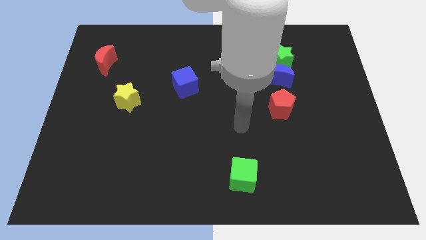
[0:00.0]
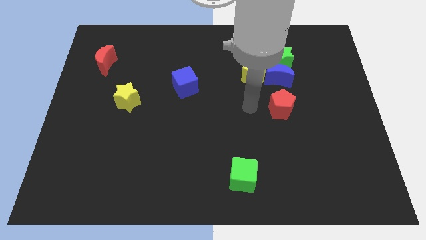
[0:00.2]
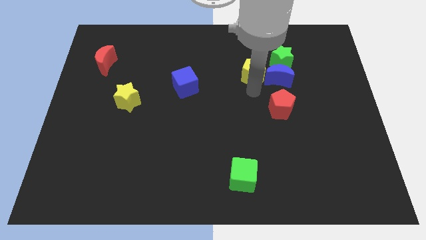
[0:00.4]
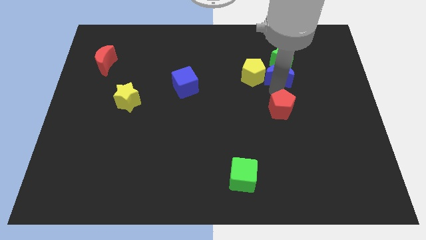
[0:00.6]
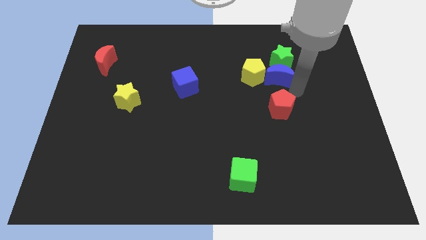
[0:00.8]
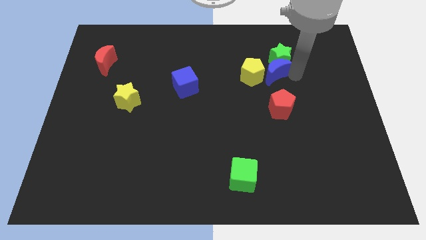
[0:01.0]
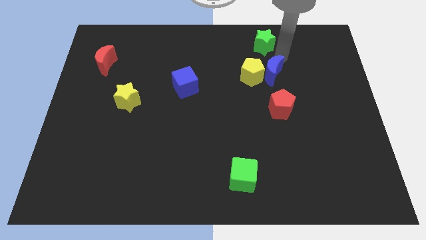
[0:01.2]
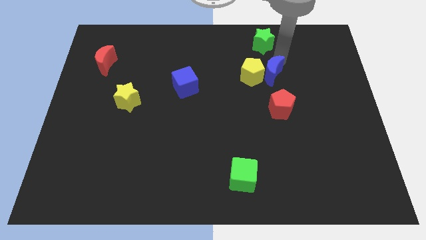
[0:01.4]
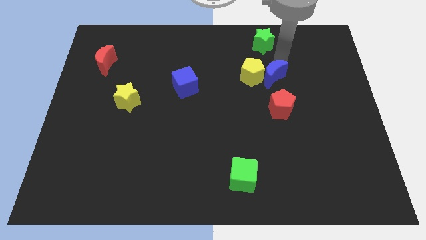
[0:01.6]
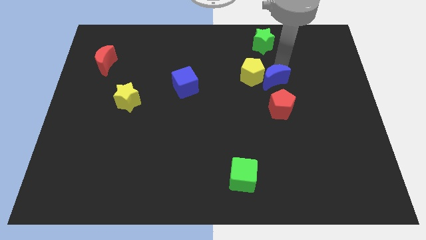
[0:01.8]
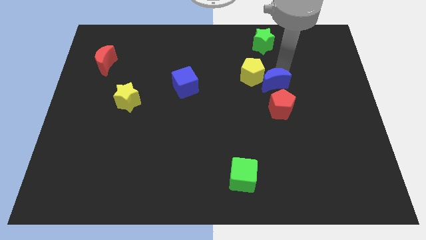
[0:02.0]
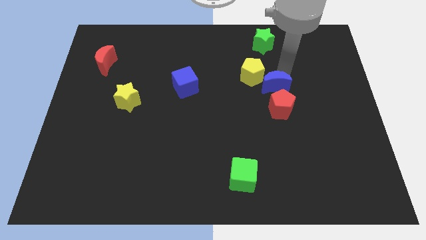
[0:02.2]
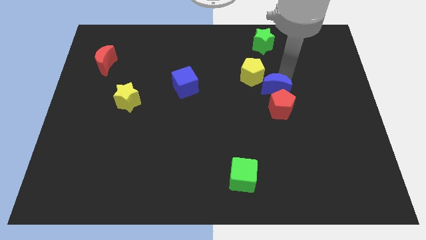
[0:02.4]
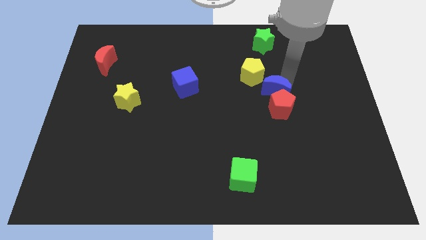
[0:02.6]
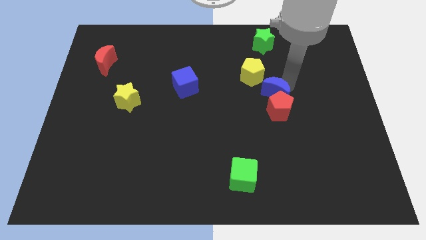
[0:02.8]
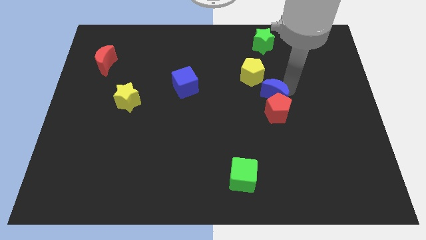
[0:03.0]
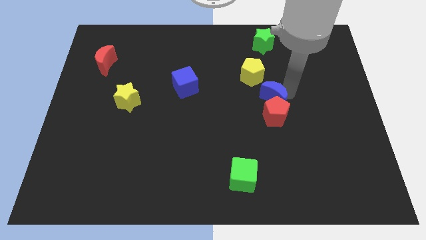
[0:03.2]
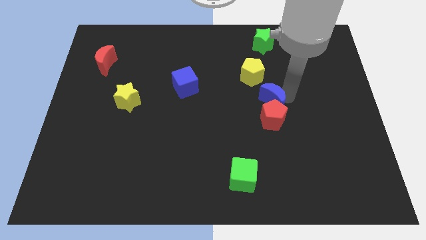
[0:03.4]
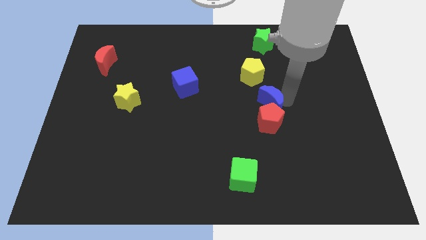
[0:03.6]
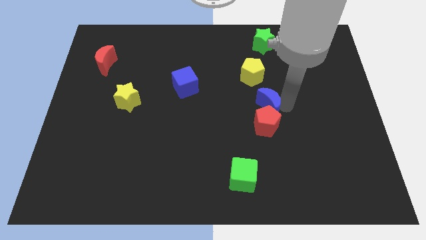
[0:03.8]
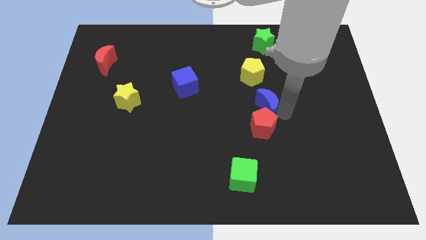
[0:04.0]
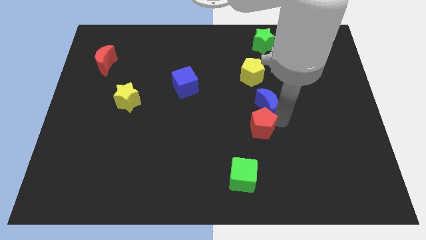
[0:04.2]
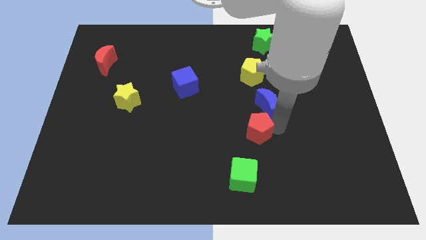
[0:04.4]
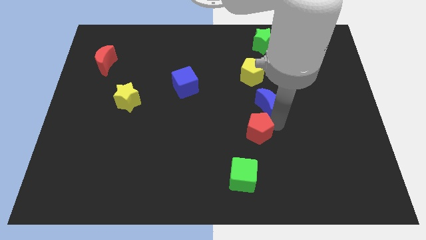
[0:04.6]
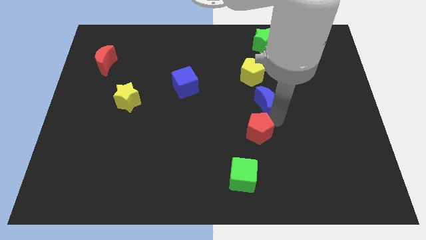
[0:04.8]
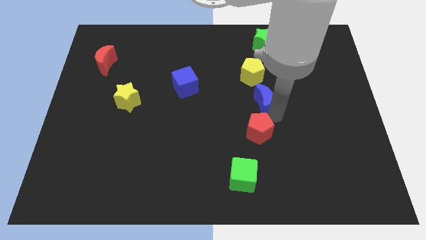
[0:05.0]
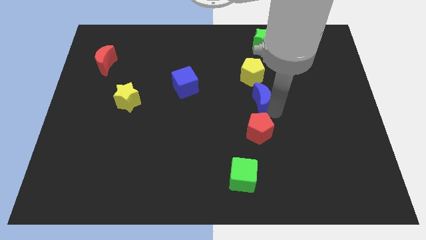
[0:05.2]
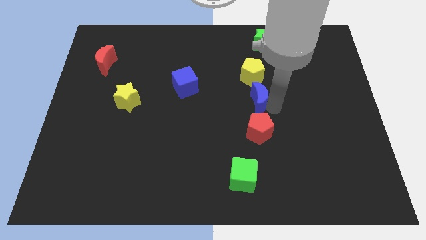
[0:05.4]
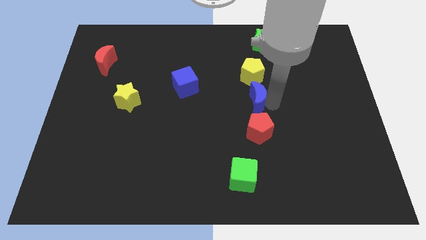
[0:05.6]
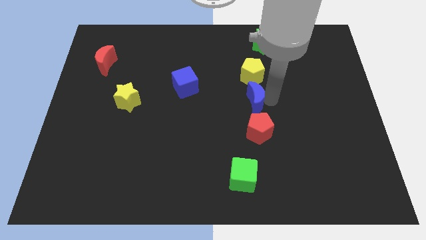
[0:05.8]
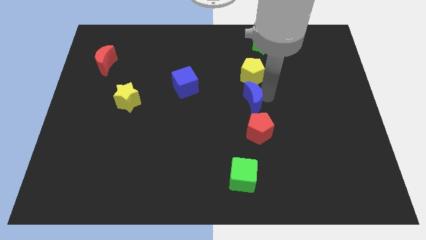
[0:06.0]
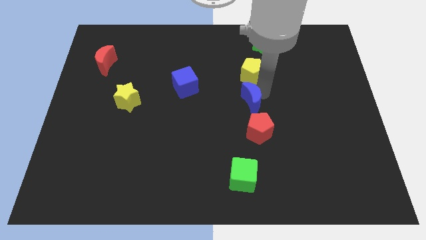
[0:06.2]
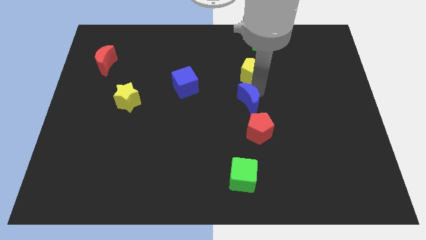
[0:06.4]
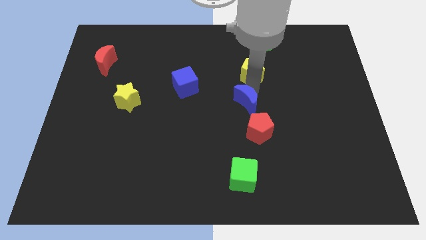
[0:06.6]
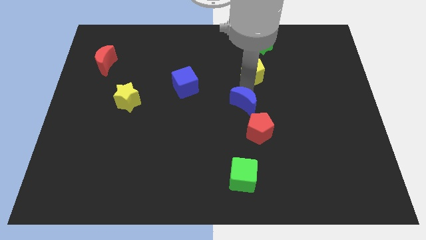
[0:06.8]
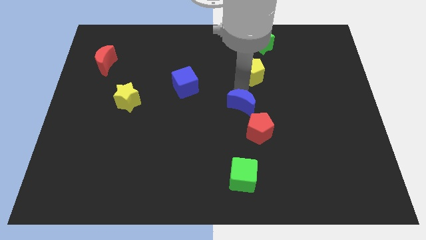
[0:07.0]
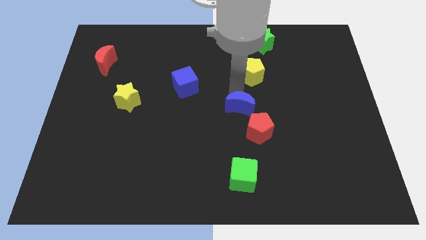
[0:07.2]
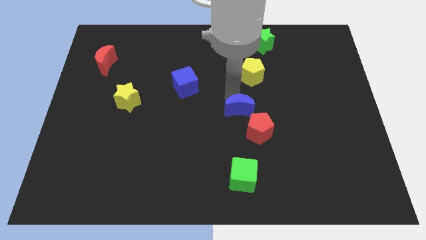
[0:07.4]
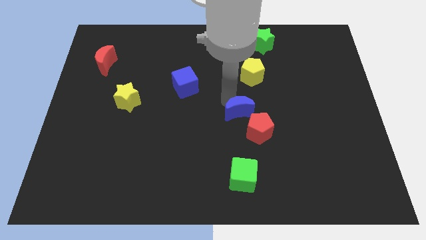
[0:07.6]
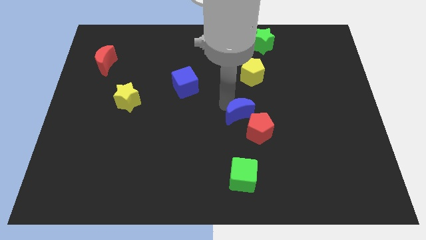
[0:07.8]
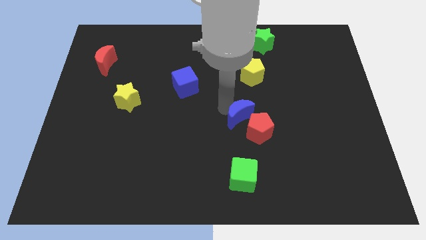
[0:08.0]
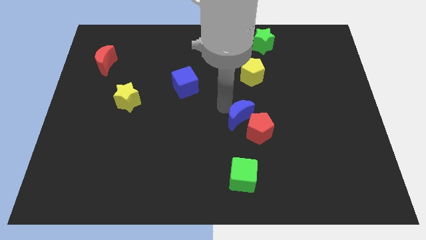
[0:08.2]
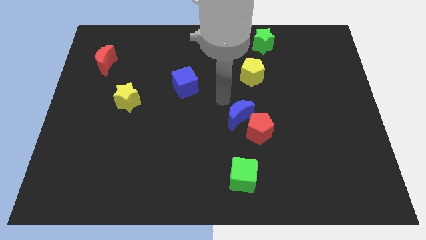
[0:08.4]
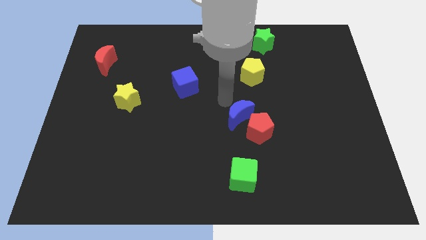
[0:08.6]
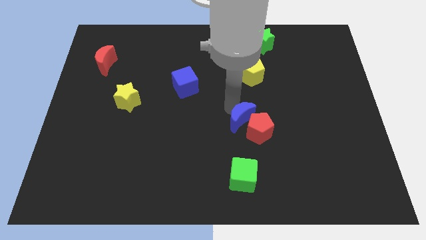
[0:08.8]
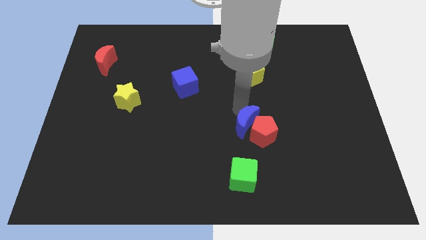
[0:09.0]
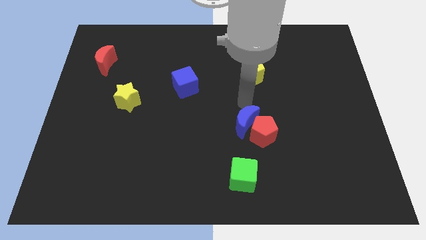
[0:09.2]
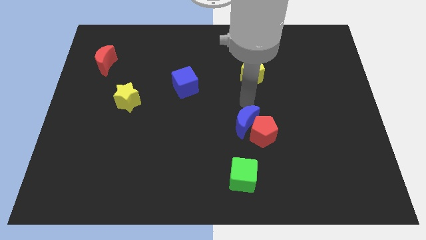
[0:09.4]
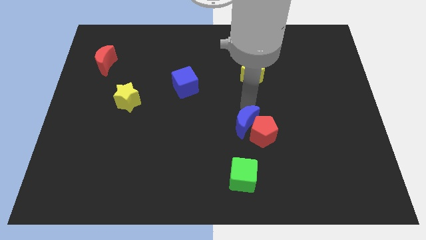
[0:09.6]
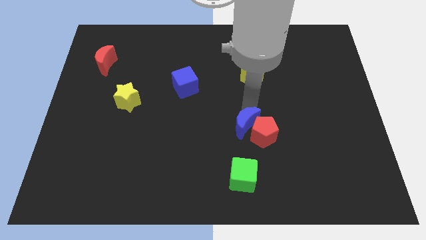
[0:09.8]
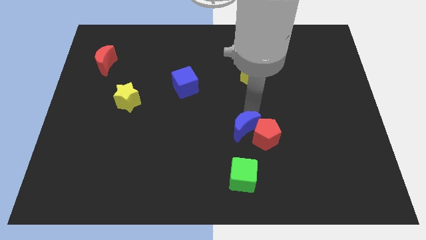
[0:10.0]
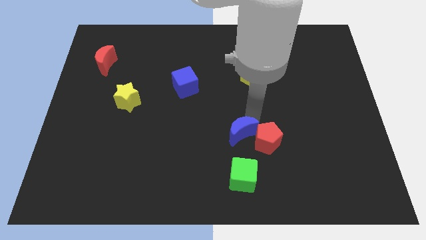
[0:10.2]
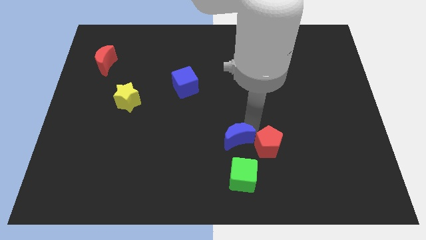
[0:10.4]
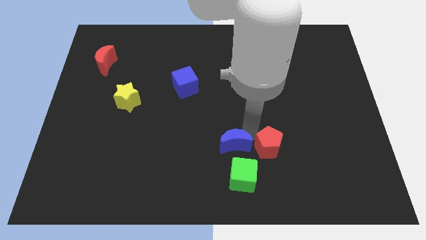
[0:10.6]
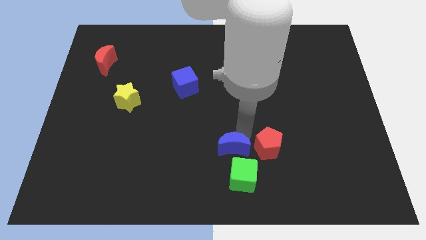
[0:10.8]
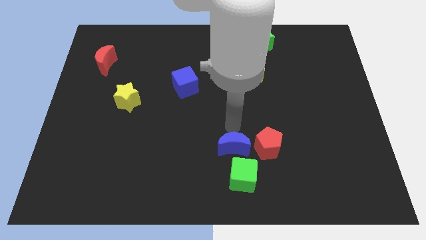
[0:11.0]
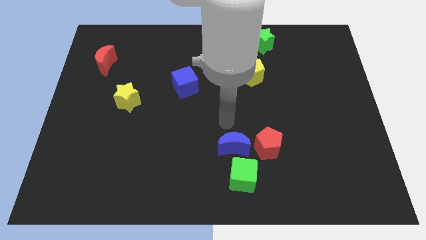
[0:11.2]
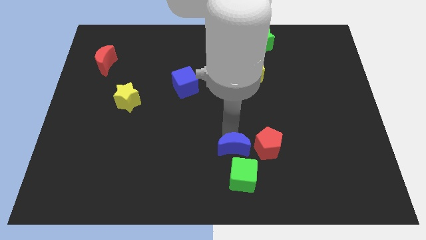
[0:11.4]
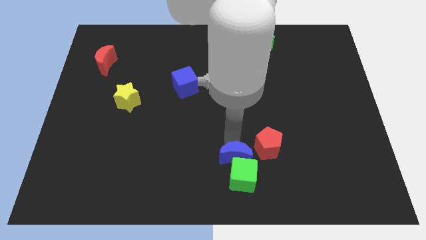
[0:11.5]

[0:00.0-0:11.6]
move the blue moon to the green cube

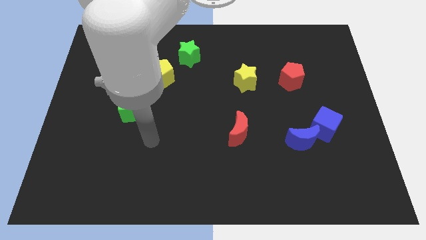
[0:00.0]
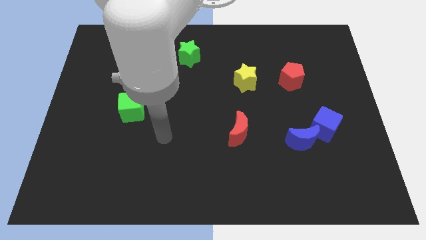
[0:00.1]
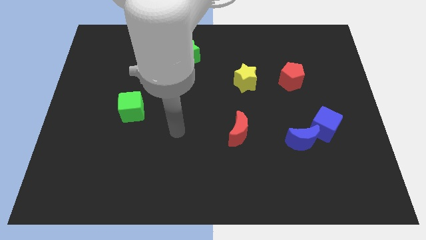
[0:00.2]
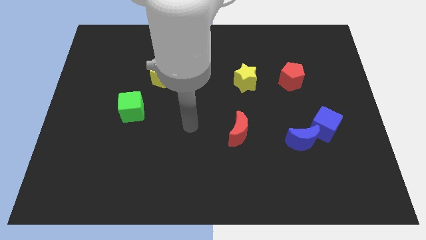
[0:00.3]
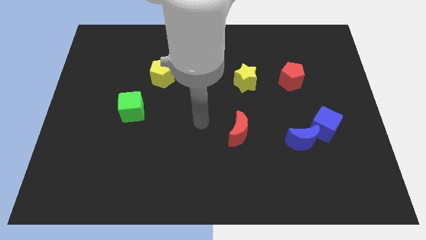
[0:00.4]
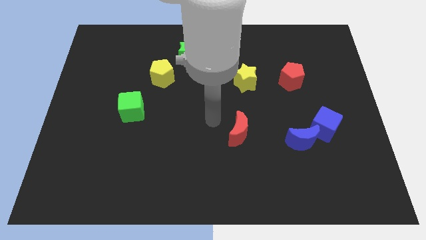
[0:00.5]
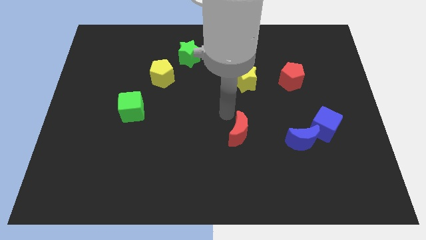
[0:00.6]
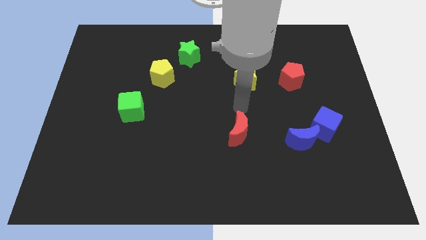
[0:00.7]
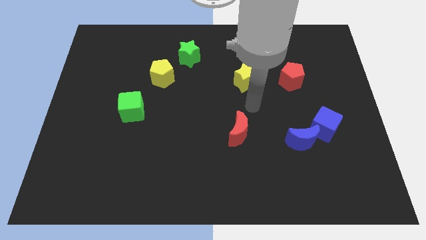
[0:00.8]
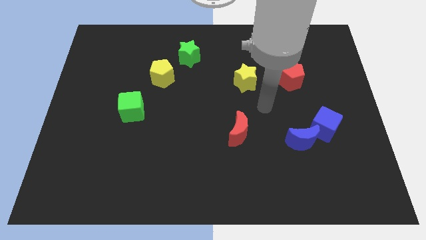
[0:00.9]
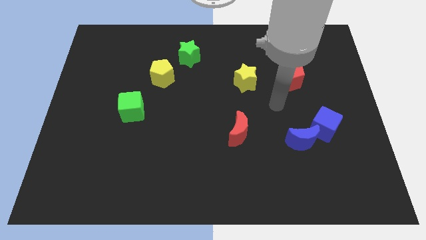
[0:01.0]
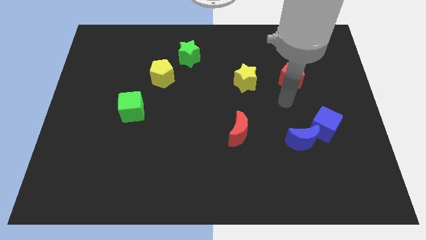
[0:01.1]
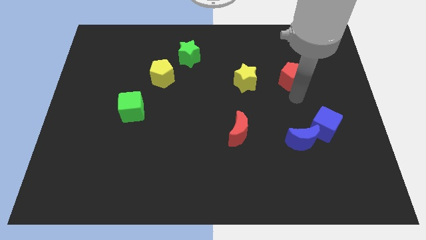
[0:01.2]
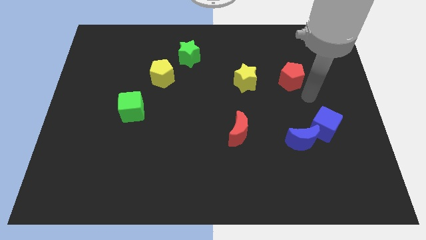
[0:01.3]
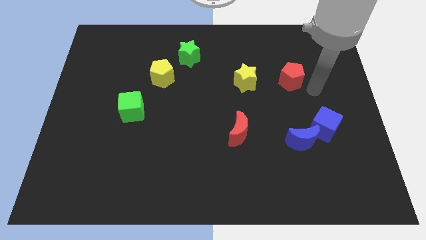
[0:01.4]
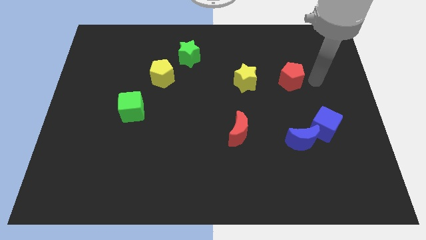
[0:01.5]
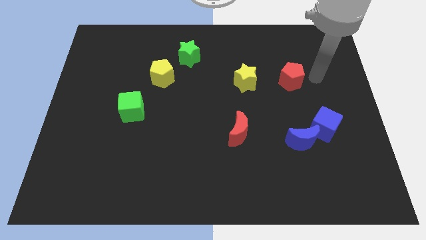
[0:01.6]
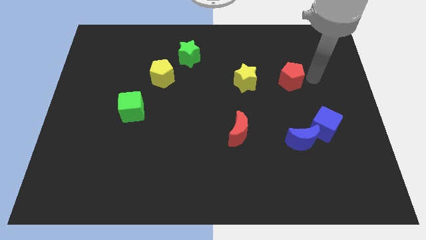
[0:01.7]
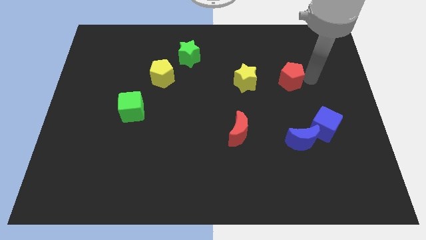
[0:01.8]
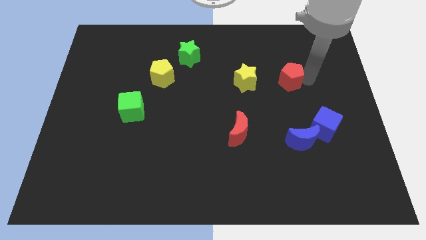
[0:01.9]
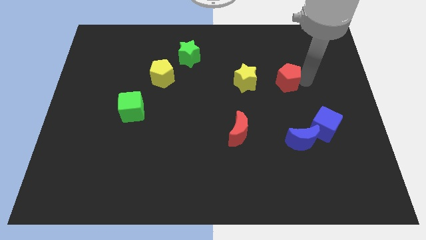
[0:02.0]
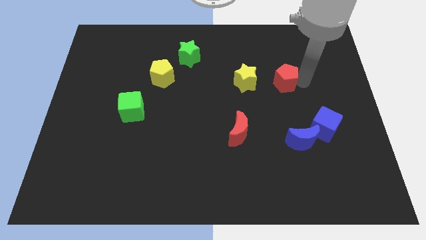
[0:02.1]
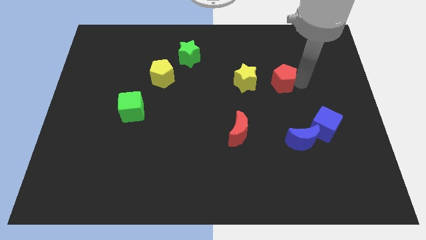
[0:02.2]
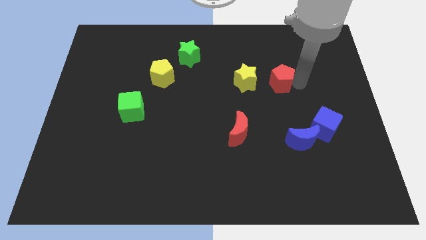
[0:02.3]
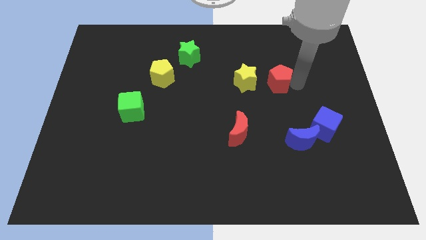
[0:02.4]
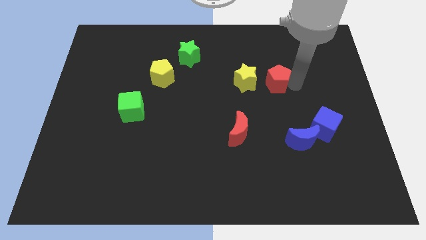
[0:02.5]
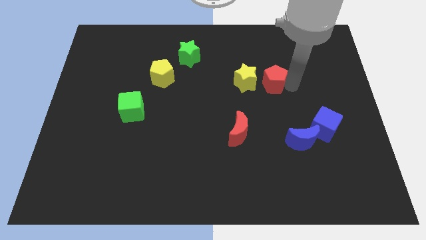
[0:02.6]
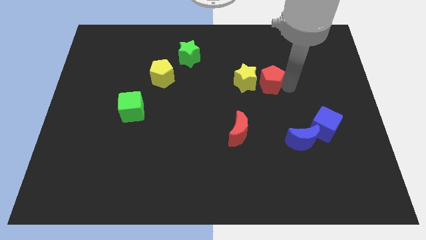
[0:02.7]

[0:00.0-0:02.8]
push the red pentagon to the yellow star
